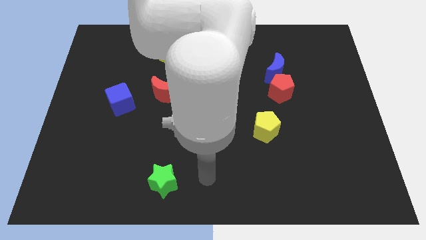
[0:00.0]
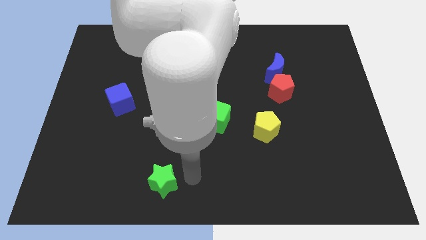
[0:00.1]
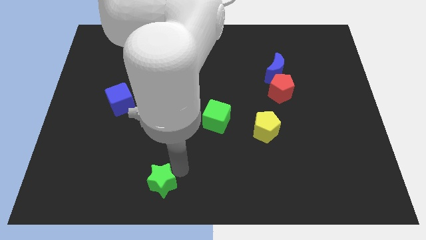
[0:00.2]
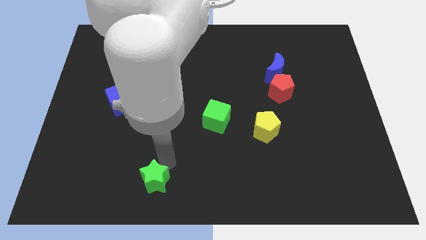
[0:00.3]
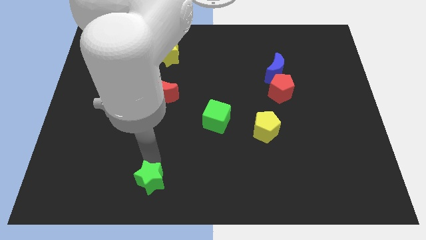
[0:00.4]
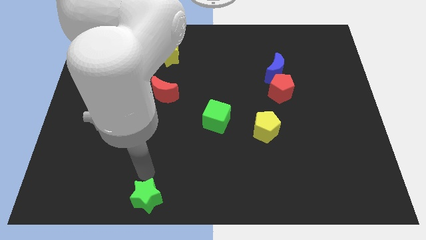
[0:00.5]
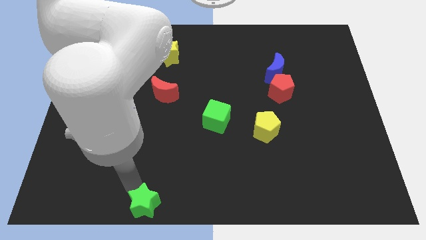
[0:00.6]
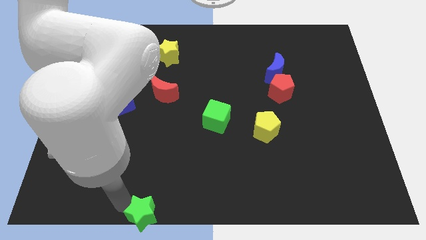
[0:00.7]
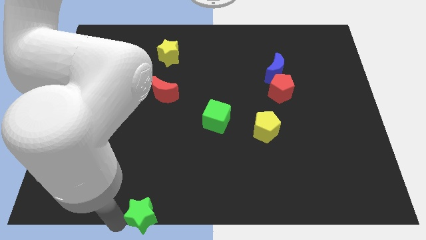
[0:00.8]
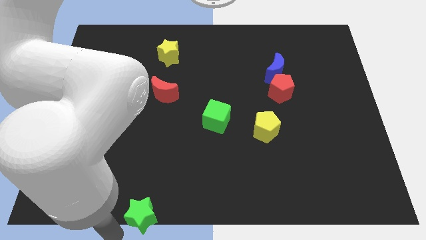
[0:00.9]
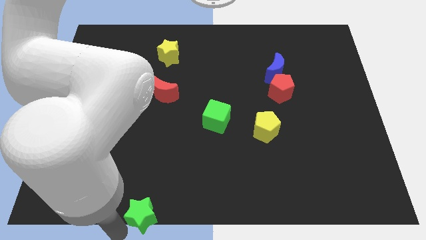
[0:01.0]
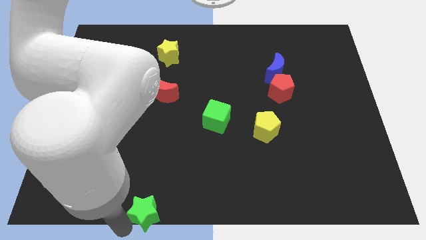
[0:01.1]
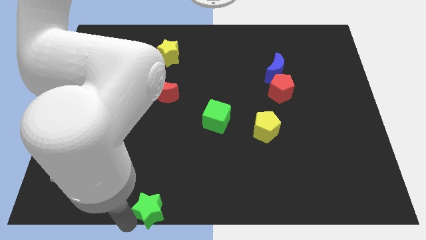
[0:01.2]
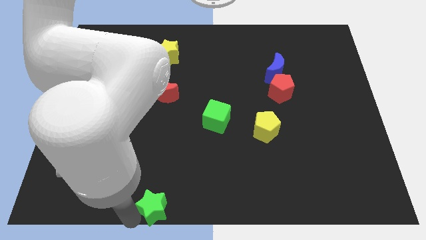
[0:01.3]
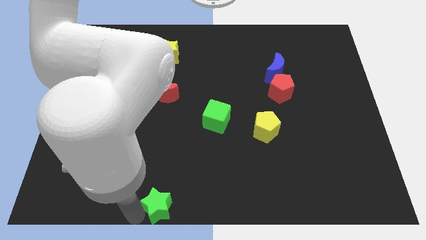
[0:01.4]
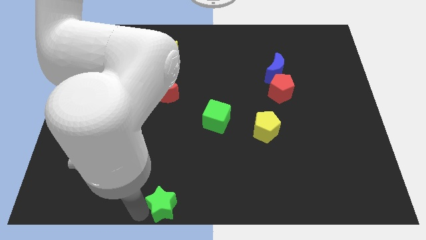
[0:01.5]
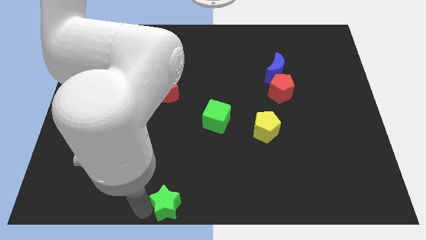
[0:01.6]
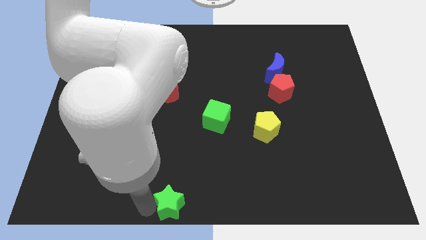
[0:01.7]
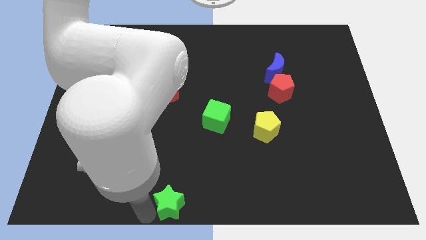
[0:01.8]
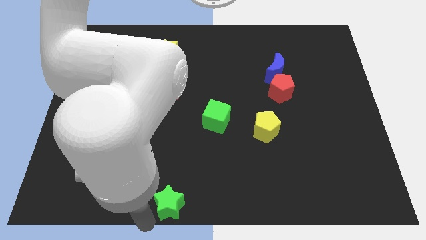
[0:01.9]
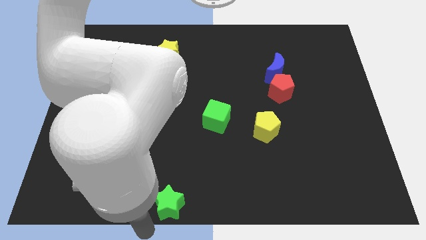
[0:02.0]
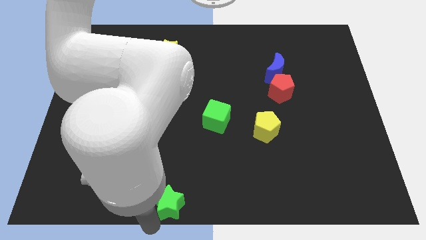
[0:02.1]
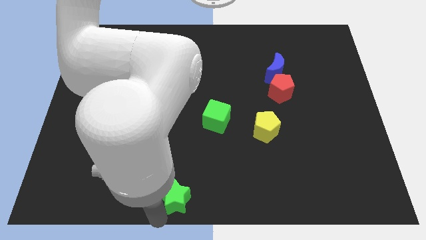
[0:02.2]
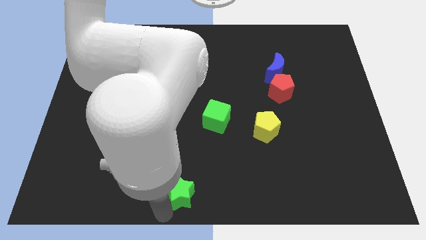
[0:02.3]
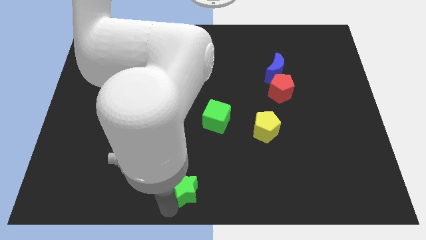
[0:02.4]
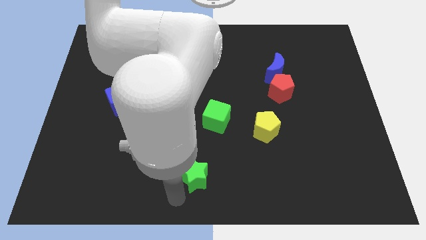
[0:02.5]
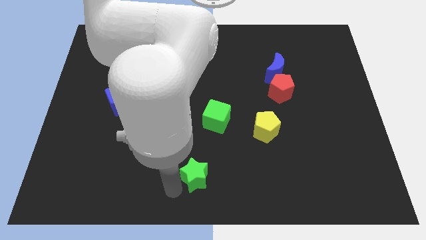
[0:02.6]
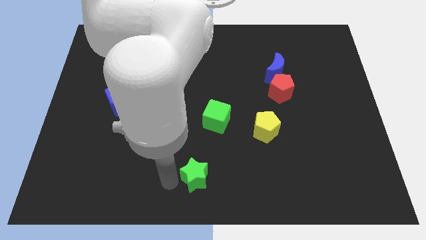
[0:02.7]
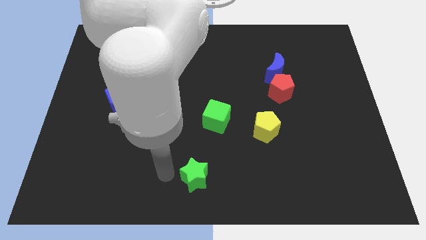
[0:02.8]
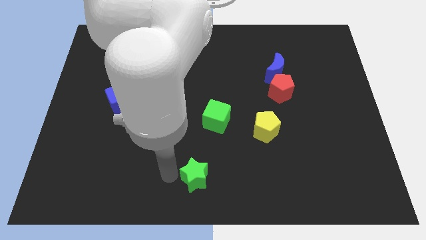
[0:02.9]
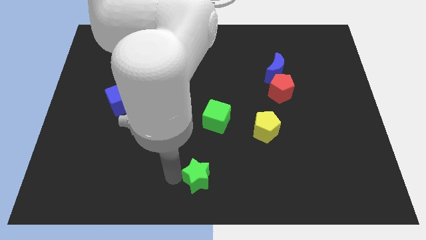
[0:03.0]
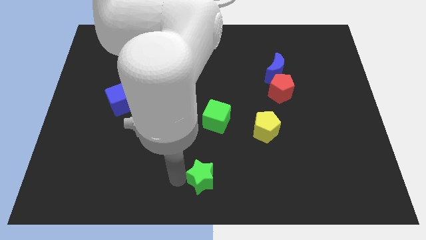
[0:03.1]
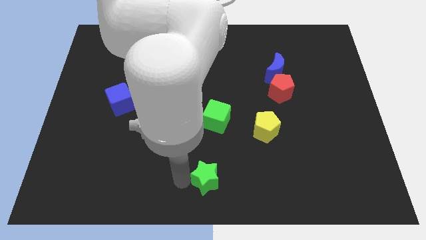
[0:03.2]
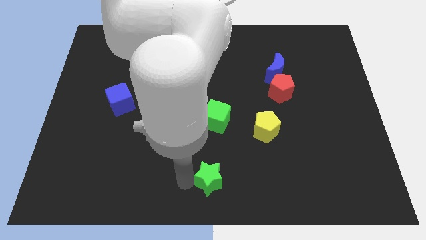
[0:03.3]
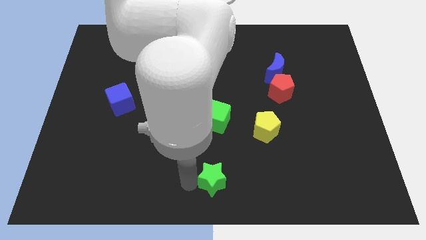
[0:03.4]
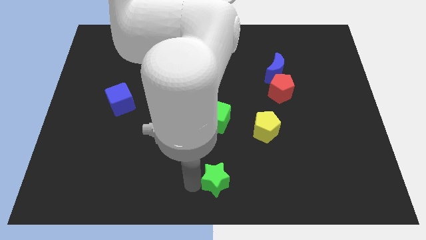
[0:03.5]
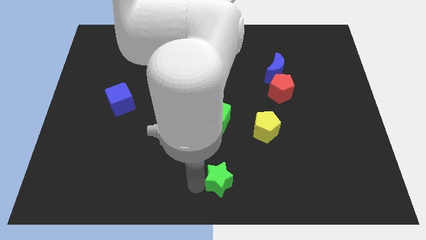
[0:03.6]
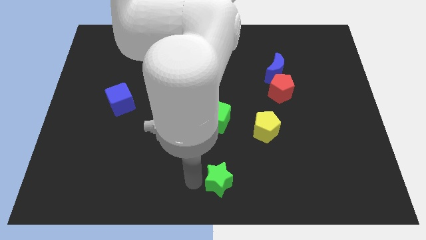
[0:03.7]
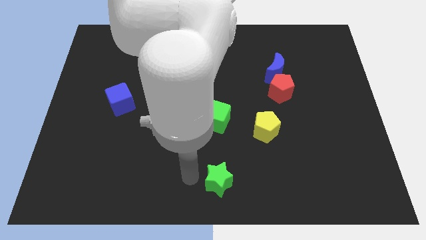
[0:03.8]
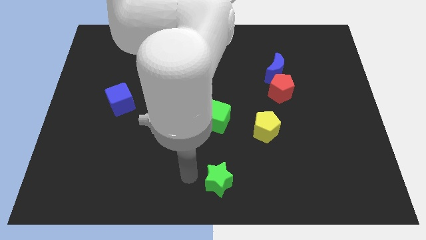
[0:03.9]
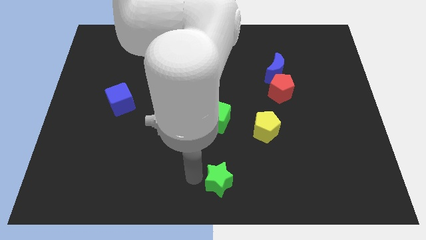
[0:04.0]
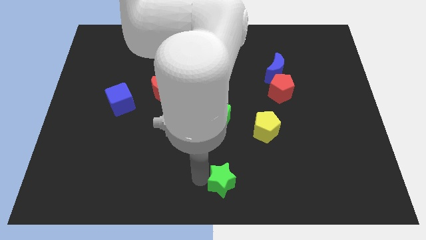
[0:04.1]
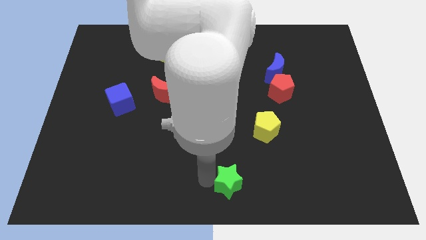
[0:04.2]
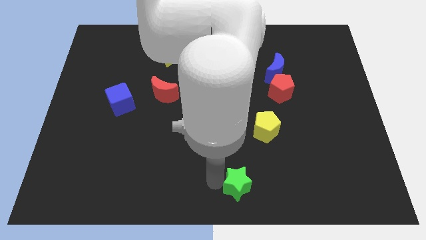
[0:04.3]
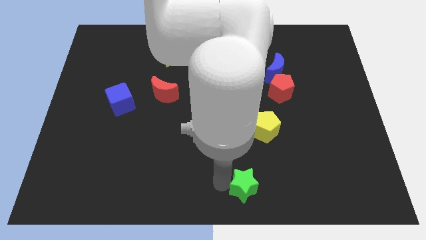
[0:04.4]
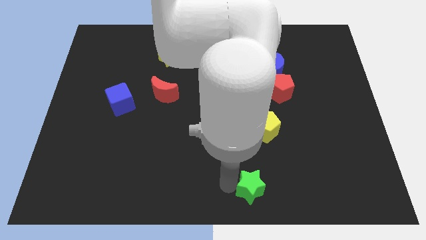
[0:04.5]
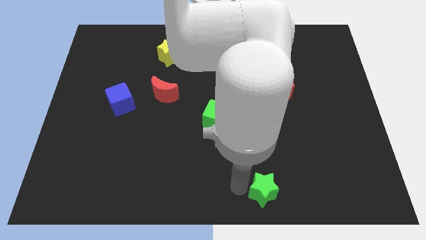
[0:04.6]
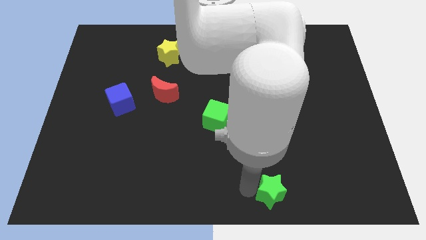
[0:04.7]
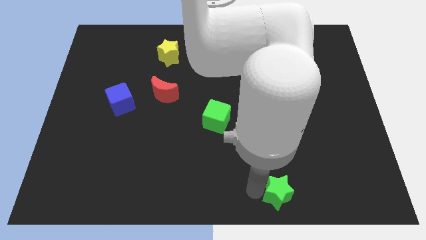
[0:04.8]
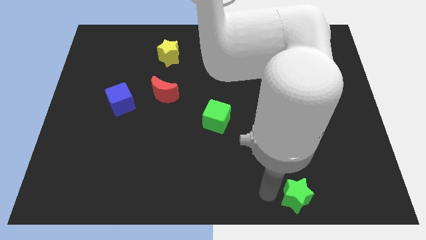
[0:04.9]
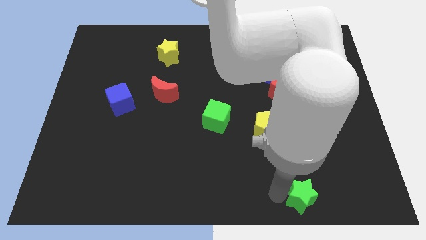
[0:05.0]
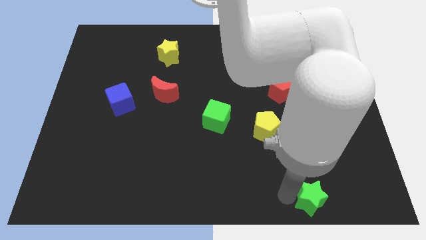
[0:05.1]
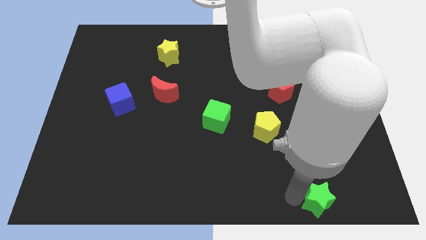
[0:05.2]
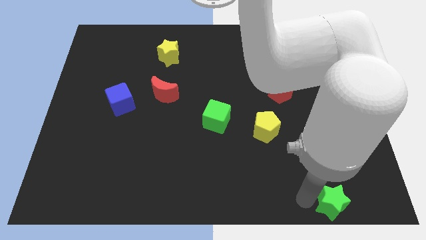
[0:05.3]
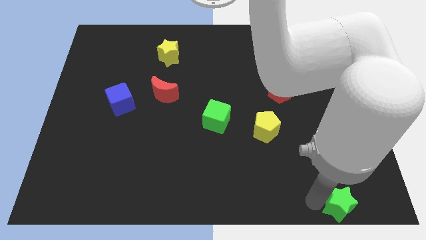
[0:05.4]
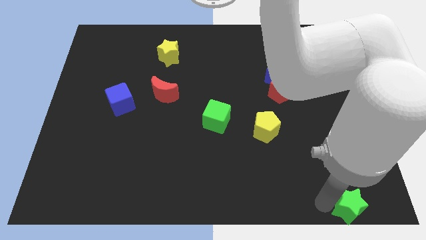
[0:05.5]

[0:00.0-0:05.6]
move the green star to the bottom right

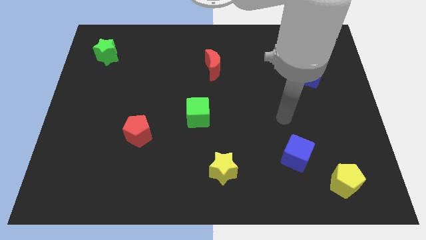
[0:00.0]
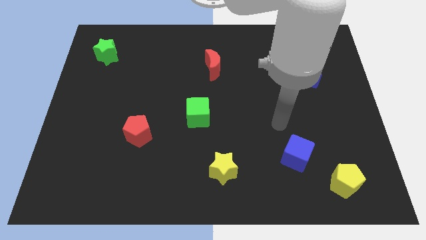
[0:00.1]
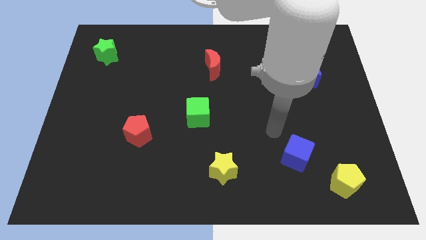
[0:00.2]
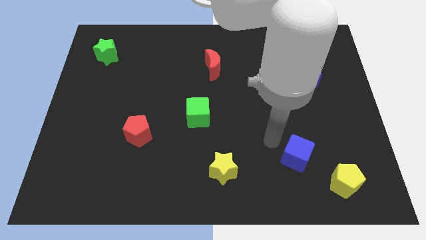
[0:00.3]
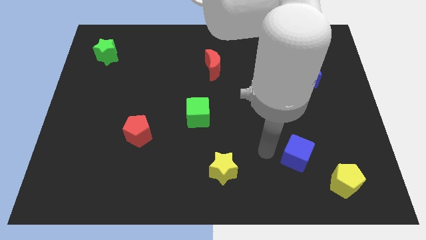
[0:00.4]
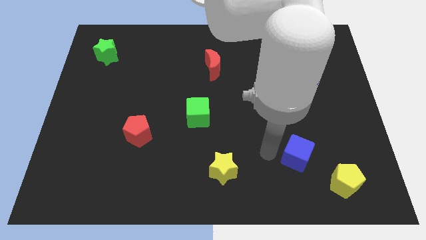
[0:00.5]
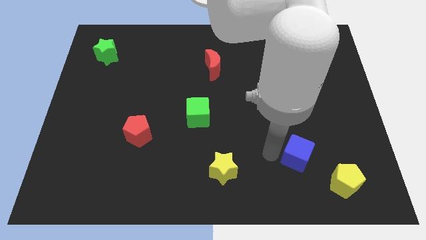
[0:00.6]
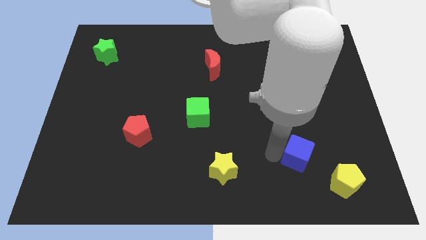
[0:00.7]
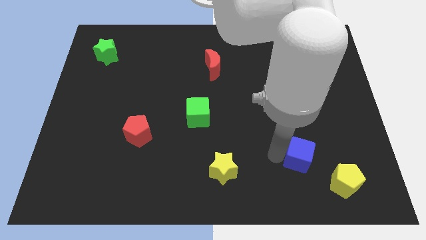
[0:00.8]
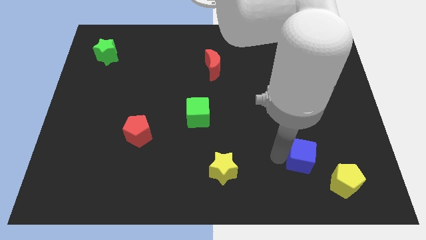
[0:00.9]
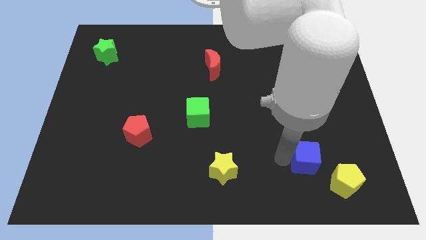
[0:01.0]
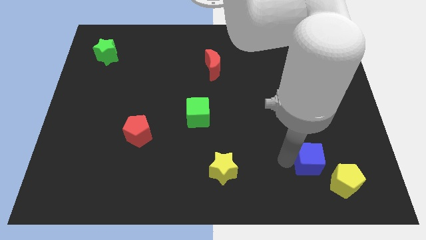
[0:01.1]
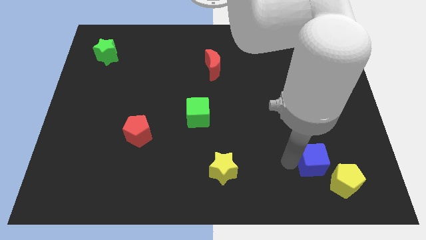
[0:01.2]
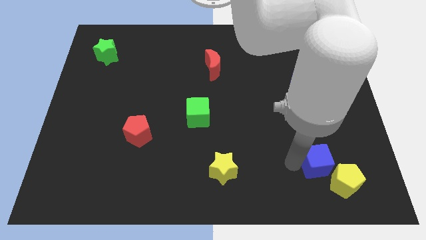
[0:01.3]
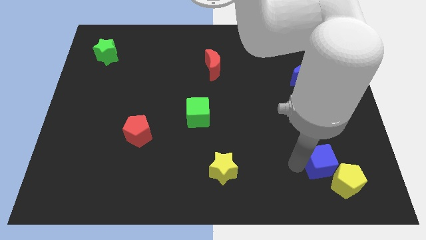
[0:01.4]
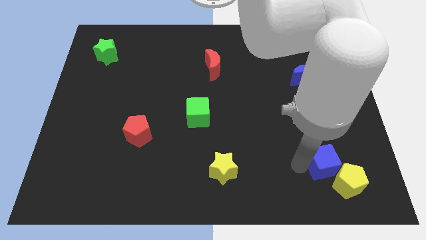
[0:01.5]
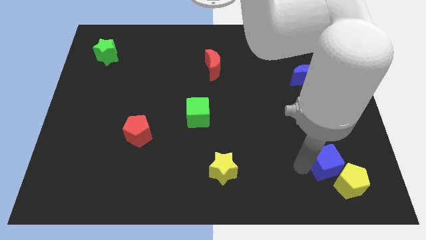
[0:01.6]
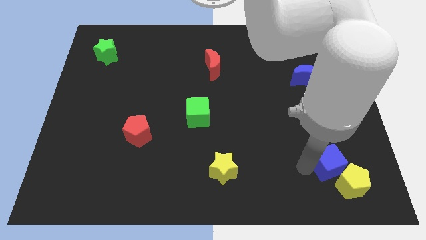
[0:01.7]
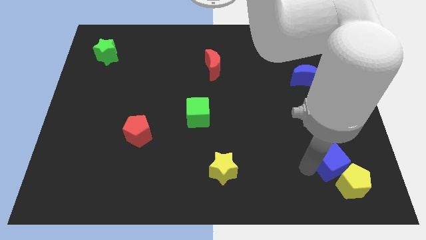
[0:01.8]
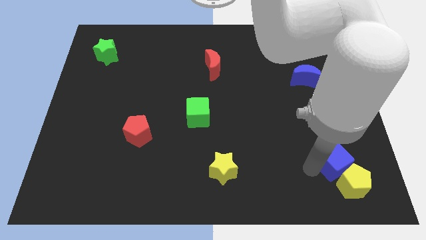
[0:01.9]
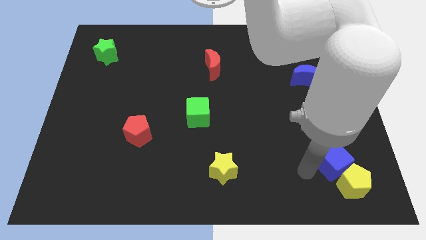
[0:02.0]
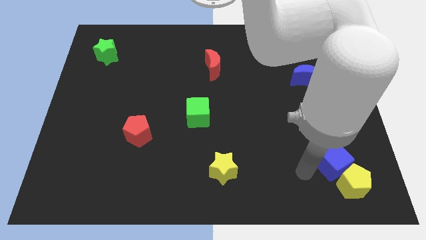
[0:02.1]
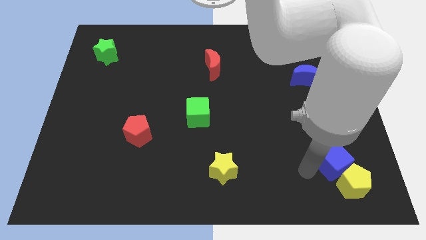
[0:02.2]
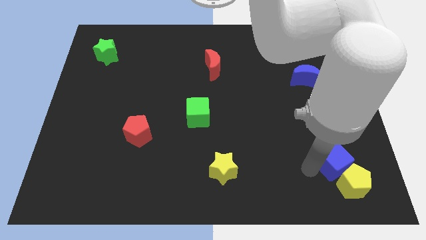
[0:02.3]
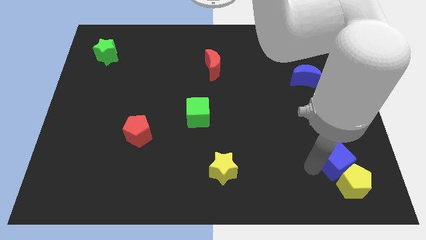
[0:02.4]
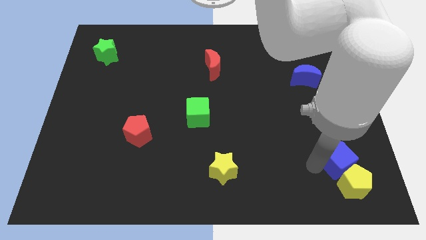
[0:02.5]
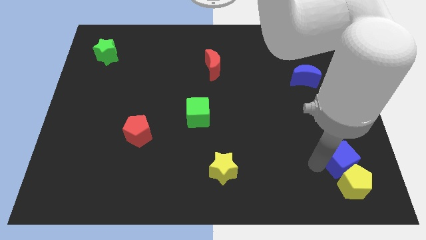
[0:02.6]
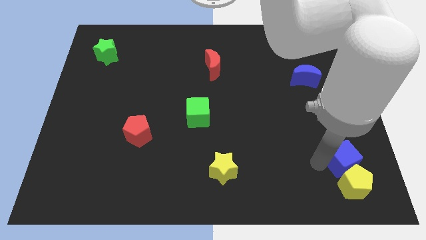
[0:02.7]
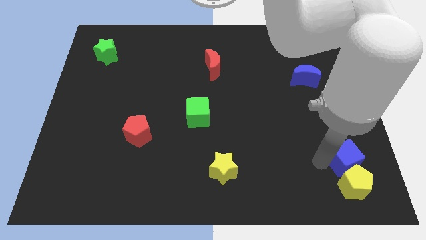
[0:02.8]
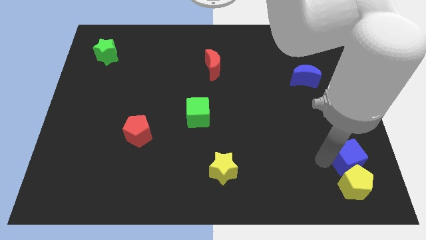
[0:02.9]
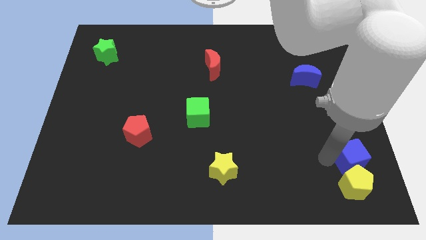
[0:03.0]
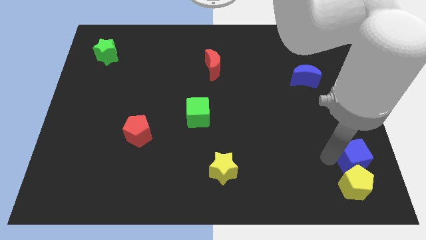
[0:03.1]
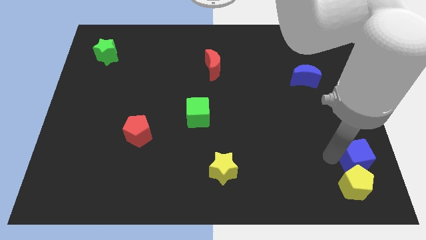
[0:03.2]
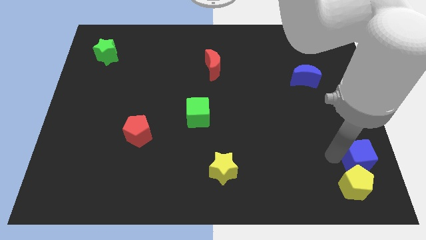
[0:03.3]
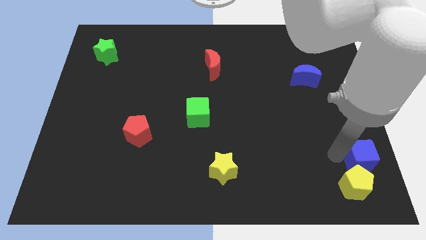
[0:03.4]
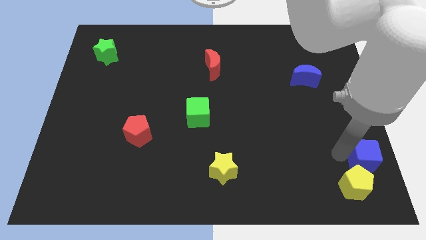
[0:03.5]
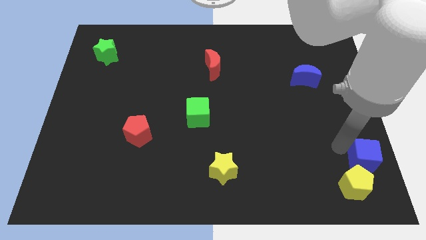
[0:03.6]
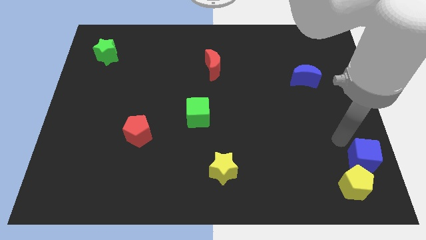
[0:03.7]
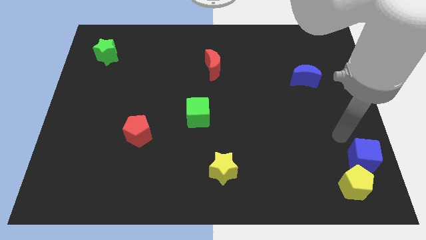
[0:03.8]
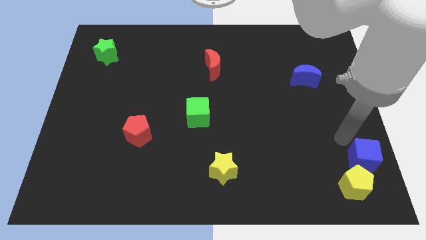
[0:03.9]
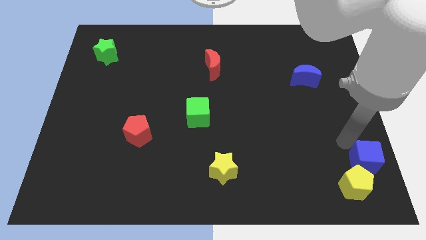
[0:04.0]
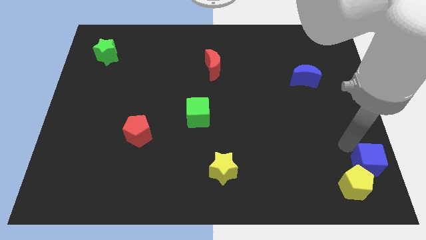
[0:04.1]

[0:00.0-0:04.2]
move the blue cube to the bottom right of the board
